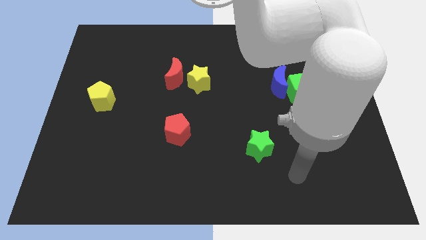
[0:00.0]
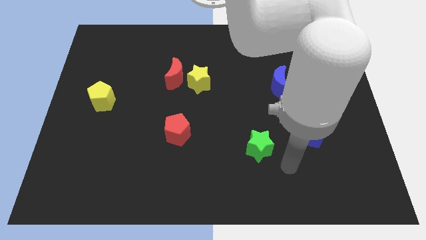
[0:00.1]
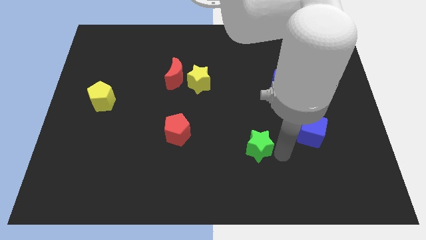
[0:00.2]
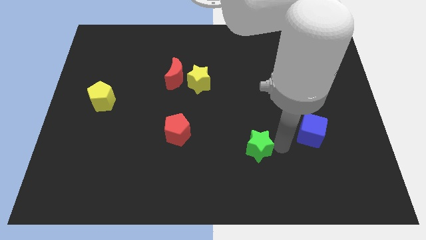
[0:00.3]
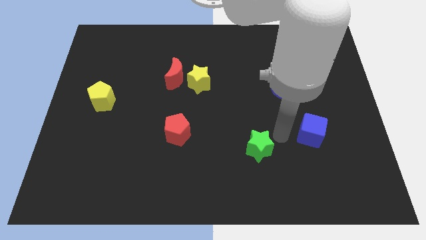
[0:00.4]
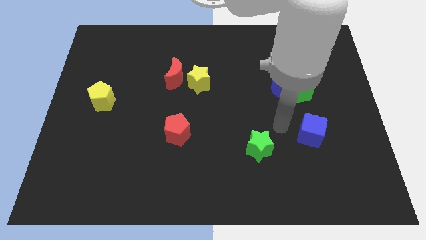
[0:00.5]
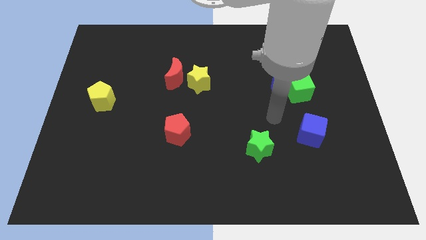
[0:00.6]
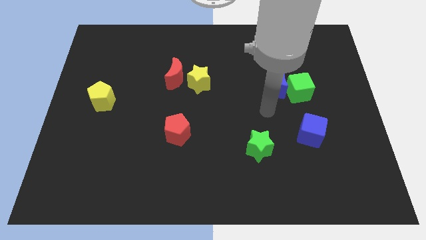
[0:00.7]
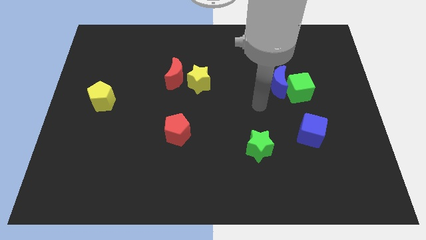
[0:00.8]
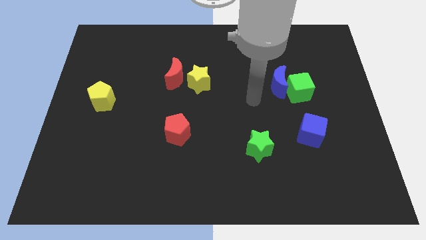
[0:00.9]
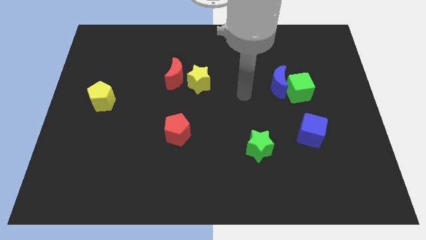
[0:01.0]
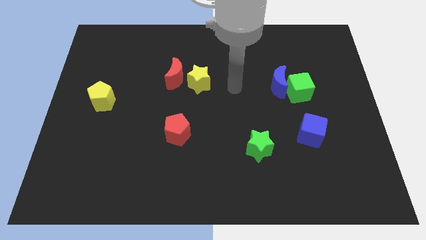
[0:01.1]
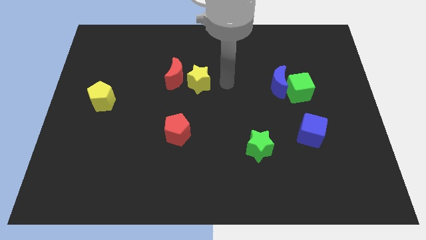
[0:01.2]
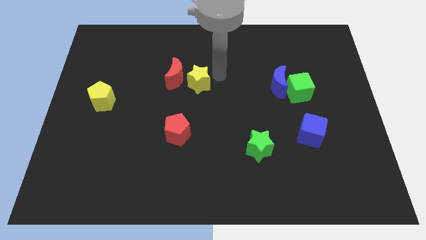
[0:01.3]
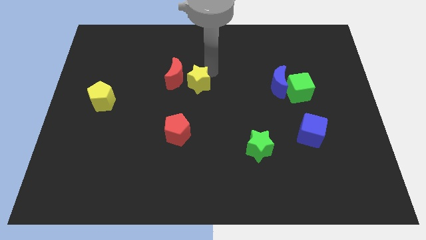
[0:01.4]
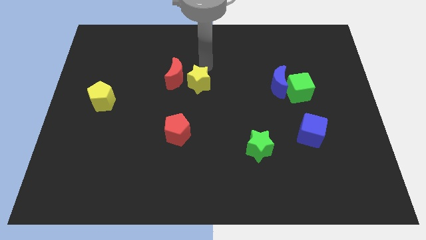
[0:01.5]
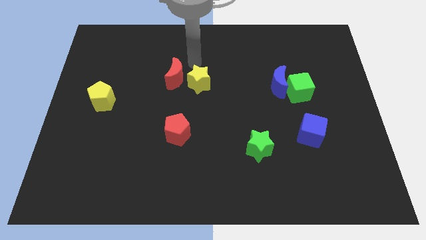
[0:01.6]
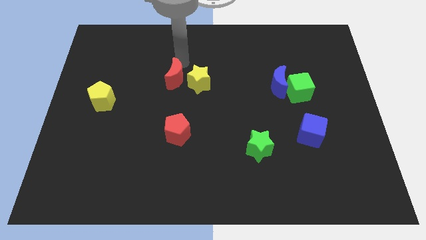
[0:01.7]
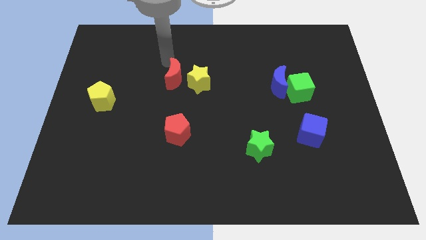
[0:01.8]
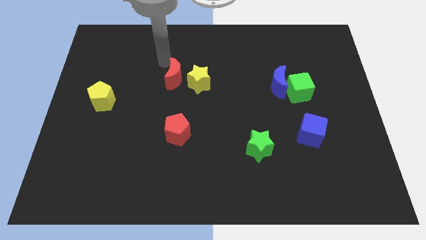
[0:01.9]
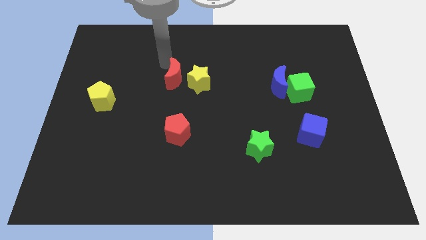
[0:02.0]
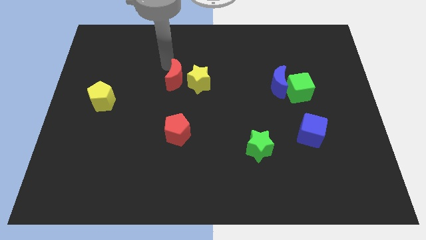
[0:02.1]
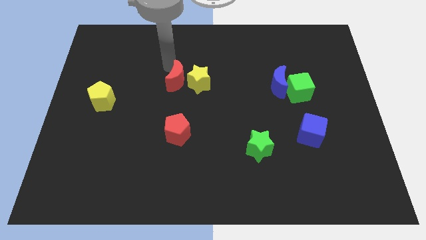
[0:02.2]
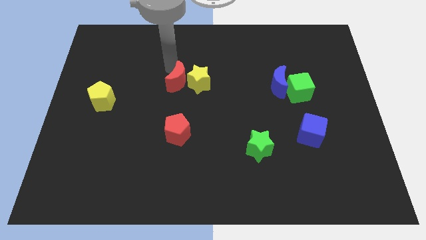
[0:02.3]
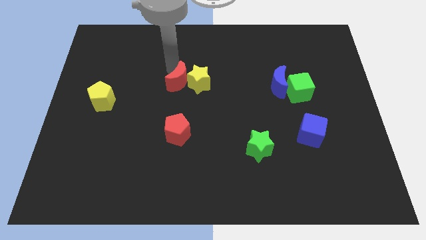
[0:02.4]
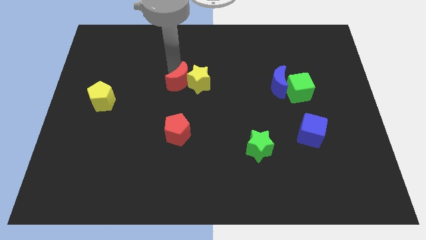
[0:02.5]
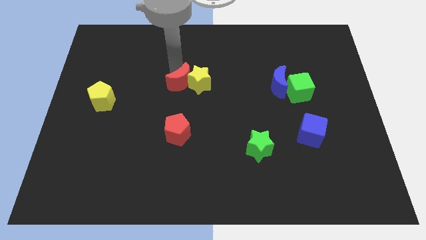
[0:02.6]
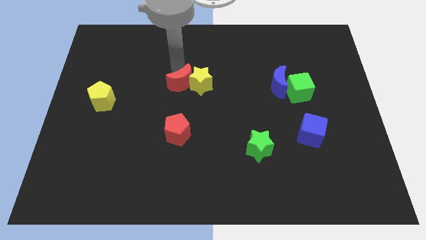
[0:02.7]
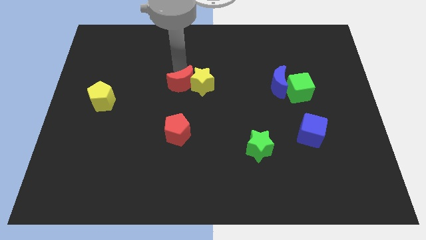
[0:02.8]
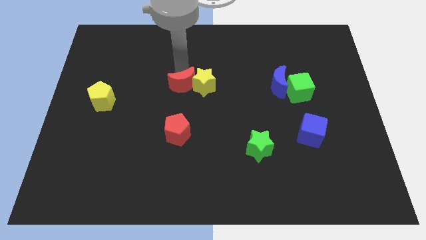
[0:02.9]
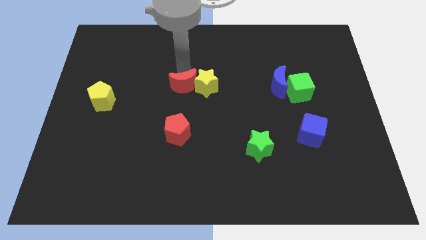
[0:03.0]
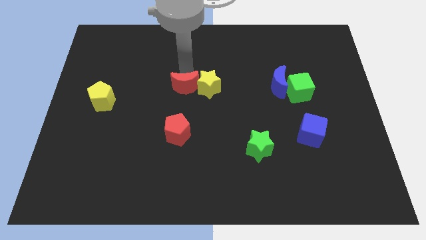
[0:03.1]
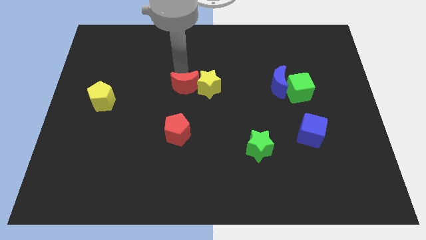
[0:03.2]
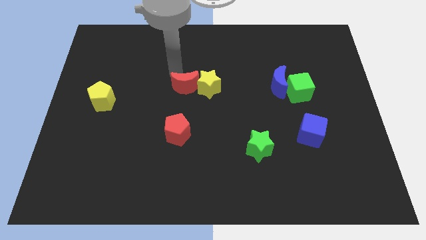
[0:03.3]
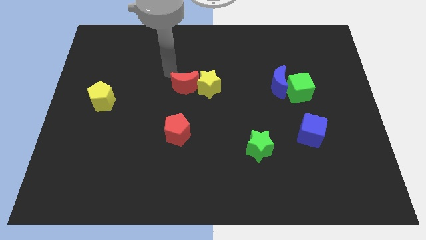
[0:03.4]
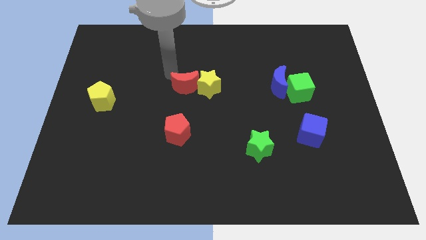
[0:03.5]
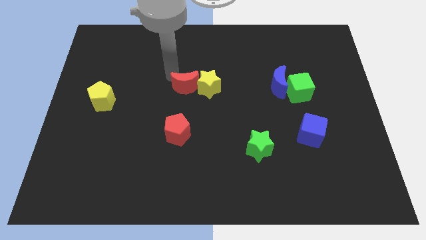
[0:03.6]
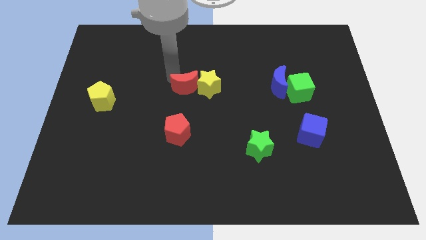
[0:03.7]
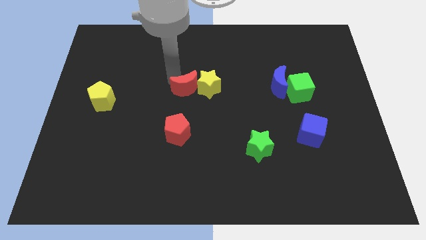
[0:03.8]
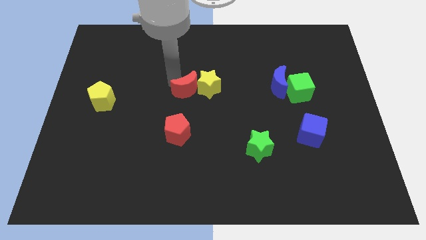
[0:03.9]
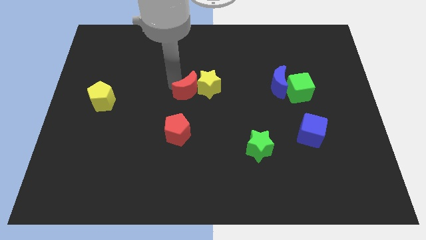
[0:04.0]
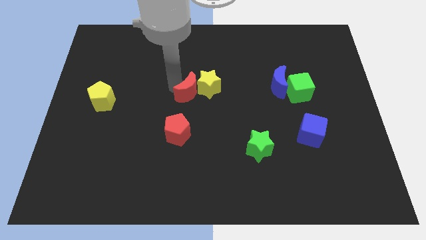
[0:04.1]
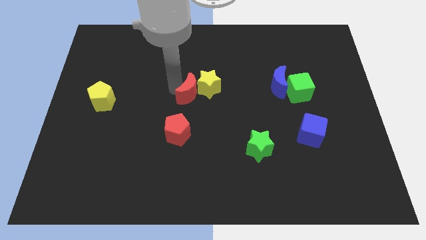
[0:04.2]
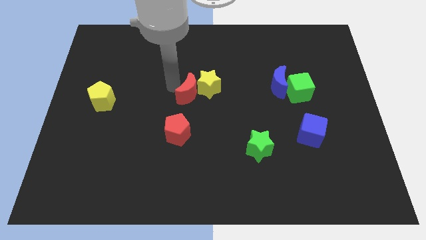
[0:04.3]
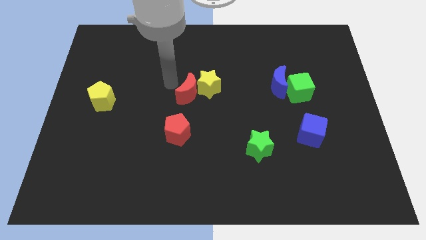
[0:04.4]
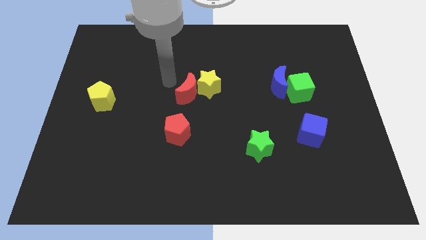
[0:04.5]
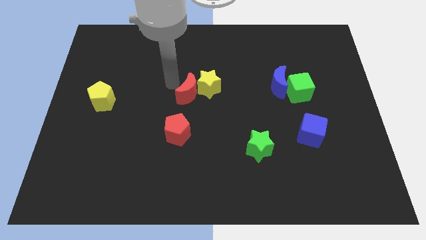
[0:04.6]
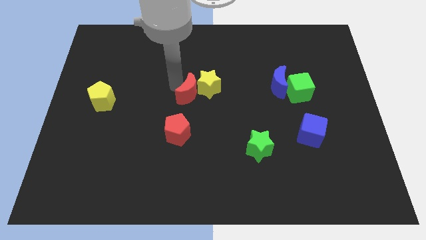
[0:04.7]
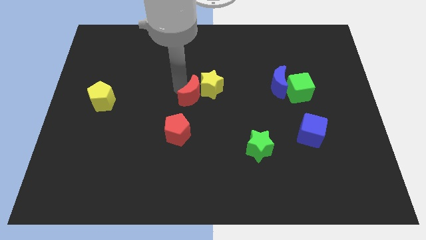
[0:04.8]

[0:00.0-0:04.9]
slide the red moon a little bit diagonally downwards and right

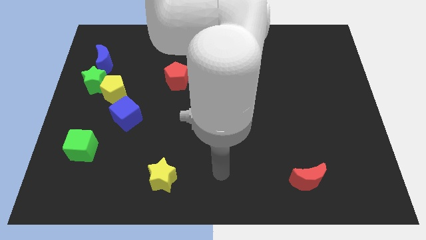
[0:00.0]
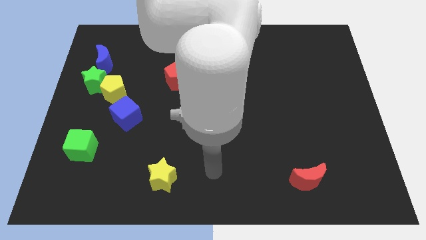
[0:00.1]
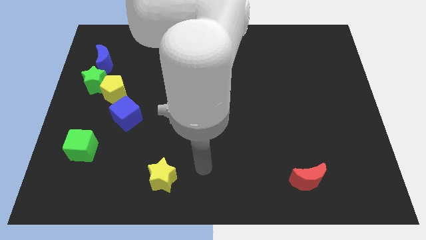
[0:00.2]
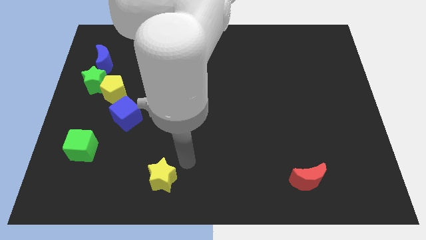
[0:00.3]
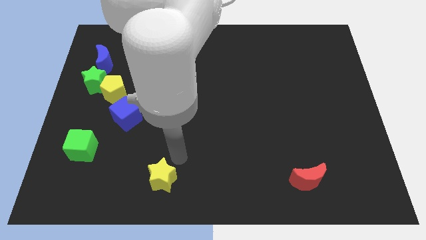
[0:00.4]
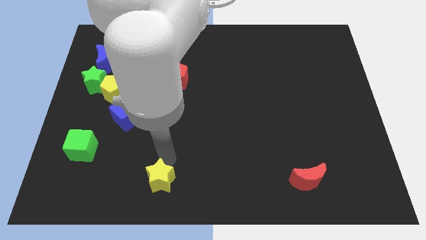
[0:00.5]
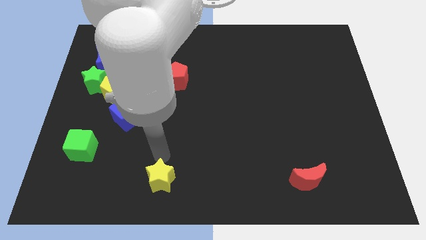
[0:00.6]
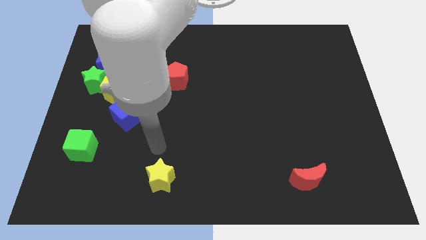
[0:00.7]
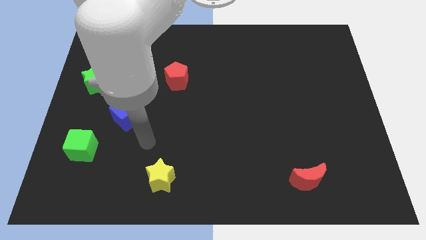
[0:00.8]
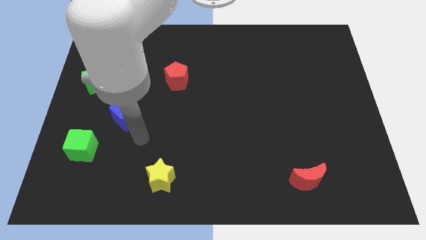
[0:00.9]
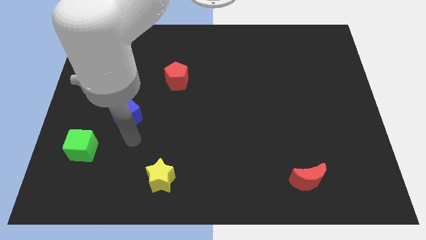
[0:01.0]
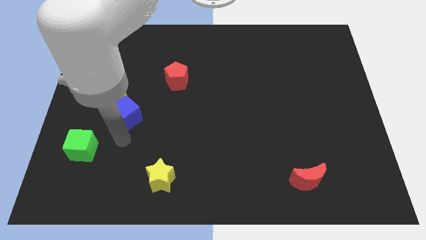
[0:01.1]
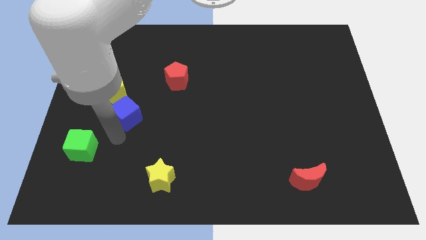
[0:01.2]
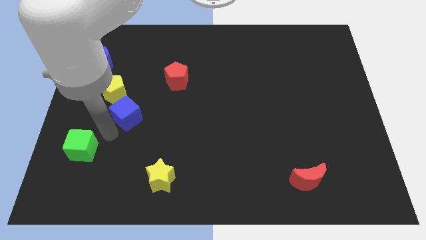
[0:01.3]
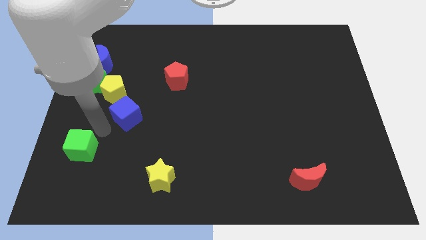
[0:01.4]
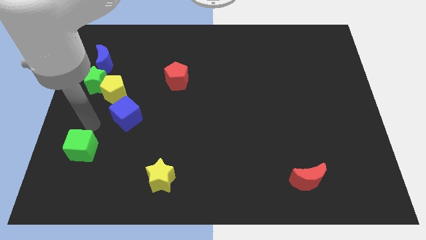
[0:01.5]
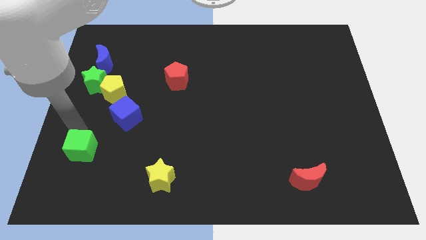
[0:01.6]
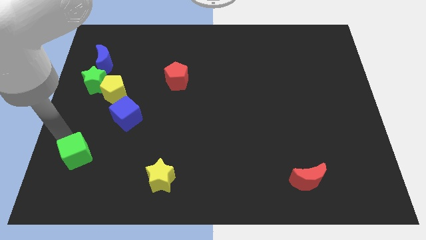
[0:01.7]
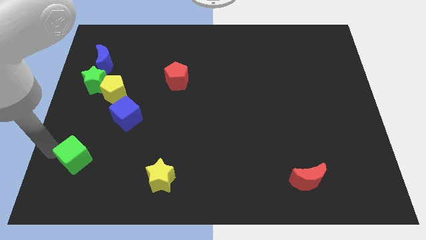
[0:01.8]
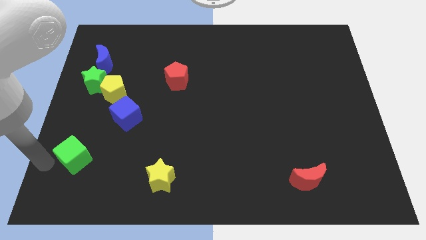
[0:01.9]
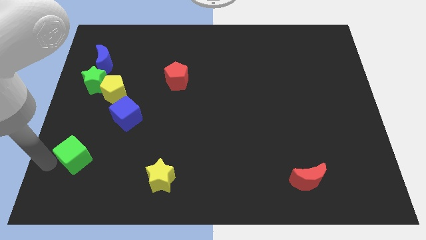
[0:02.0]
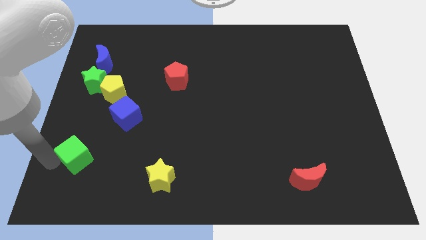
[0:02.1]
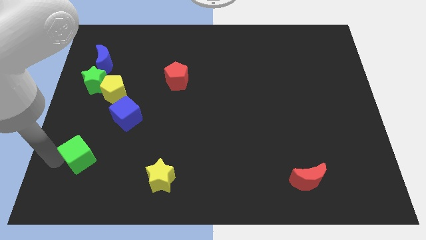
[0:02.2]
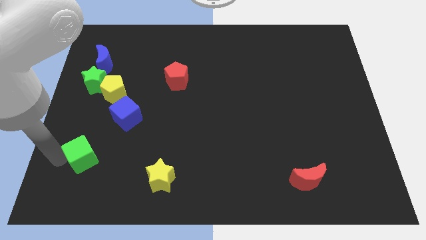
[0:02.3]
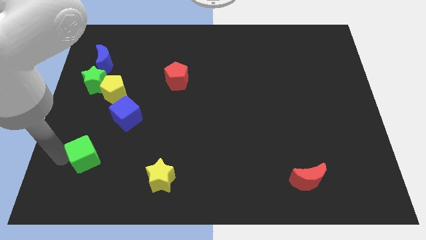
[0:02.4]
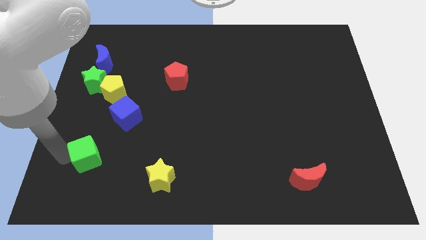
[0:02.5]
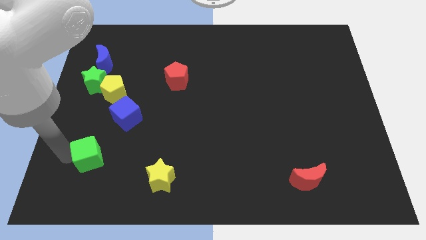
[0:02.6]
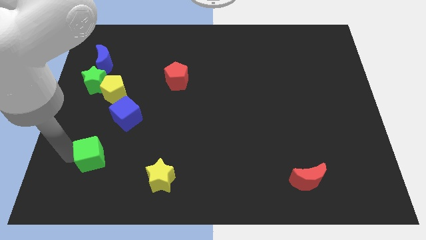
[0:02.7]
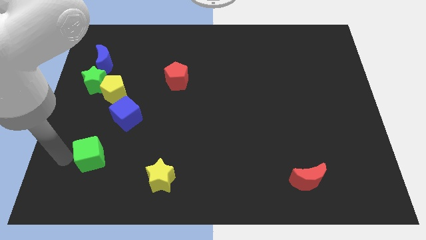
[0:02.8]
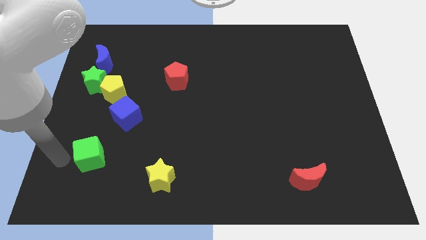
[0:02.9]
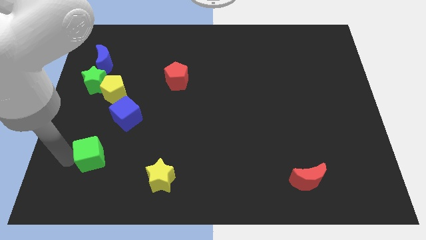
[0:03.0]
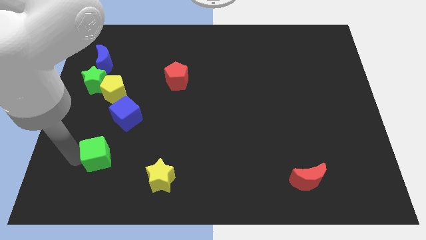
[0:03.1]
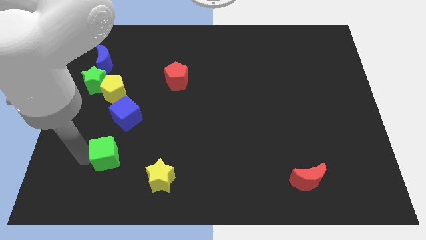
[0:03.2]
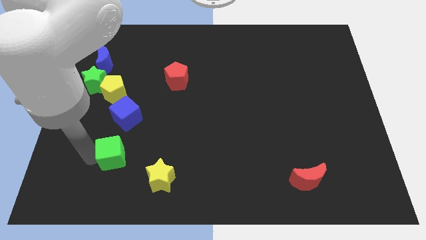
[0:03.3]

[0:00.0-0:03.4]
move the green cube a bit right
